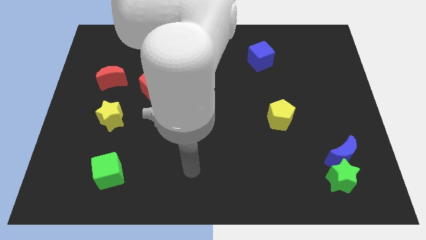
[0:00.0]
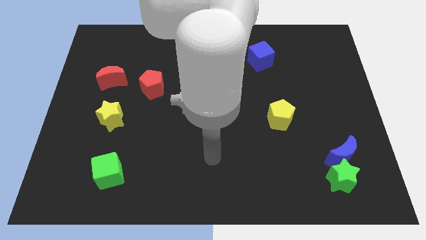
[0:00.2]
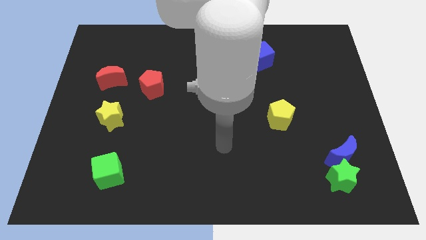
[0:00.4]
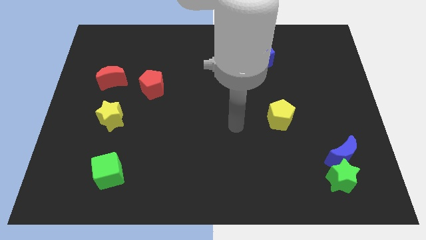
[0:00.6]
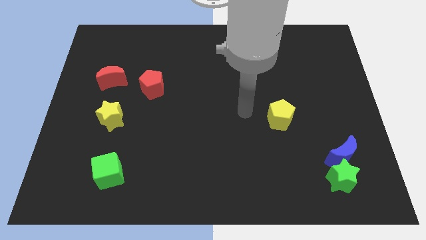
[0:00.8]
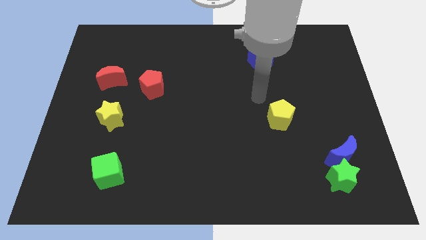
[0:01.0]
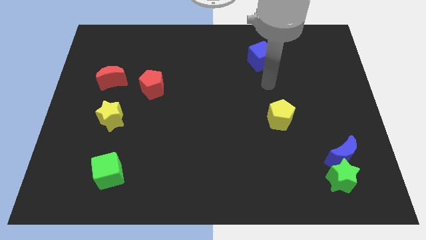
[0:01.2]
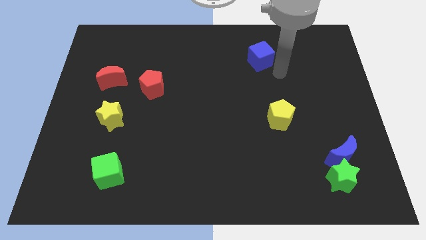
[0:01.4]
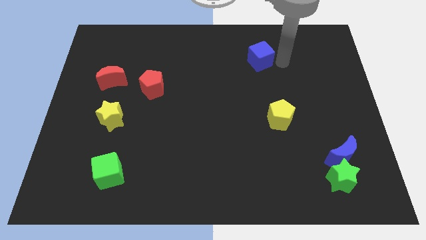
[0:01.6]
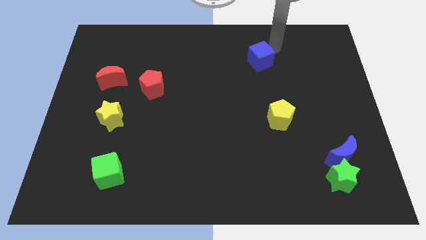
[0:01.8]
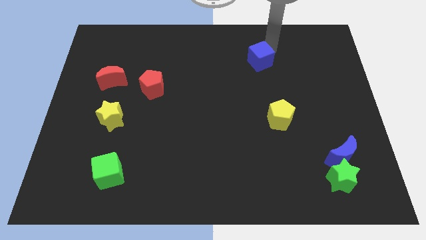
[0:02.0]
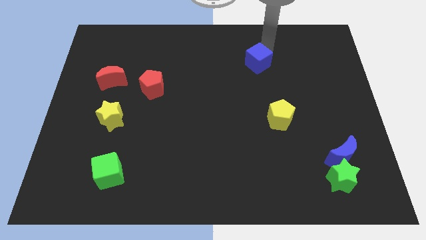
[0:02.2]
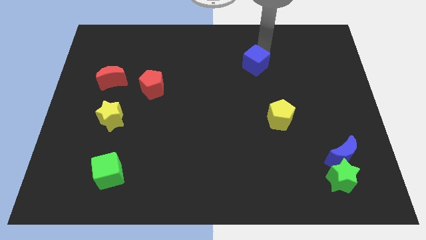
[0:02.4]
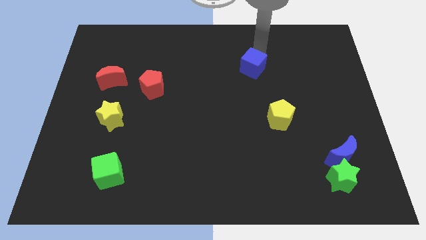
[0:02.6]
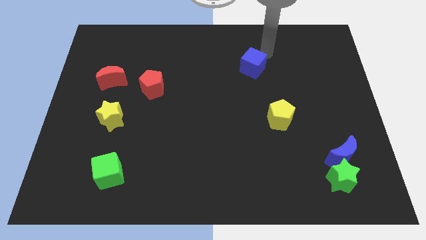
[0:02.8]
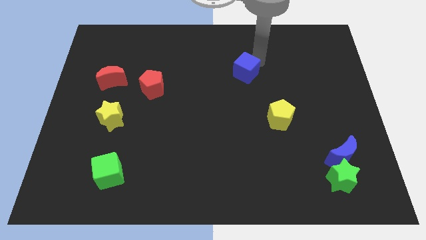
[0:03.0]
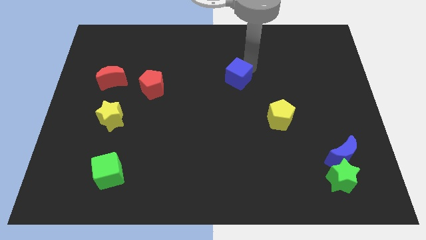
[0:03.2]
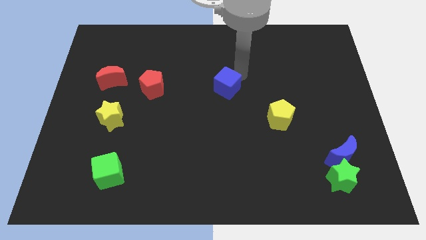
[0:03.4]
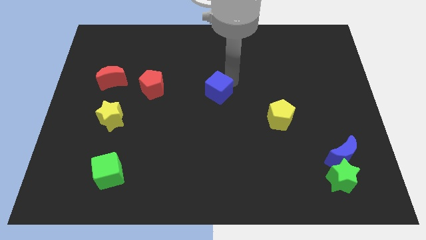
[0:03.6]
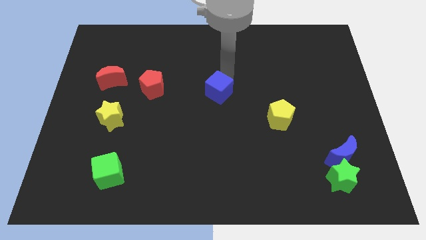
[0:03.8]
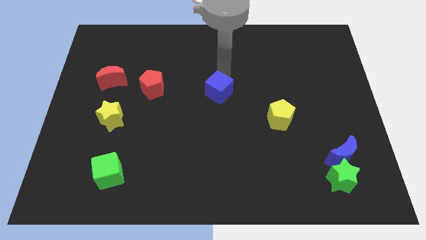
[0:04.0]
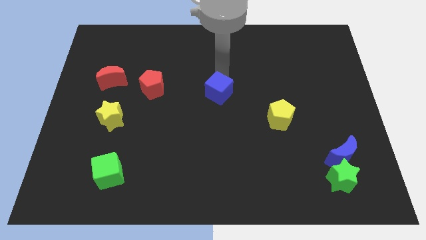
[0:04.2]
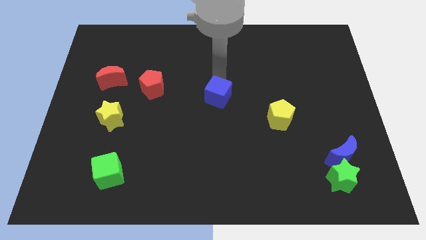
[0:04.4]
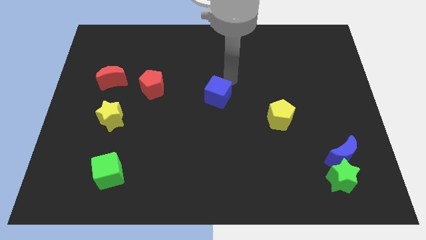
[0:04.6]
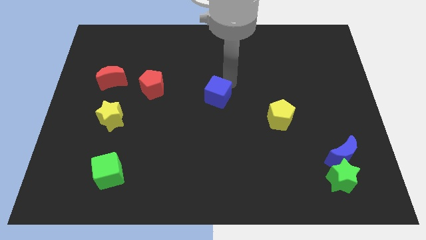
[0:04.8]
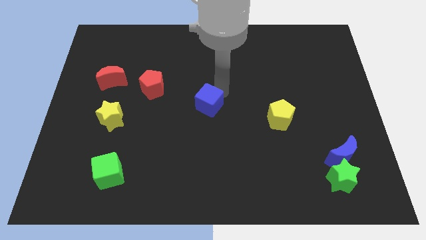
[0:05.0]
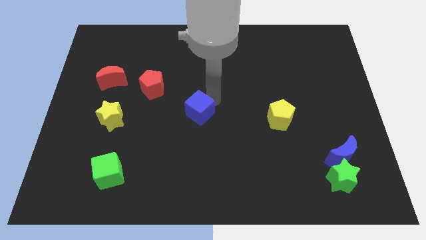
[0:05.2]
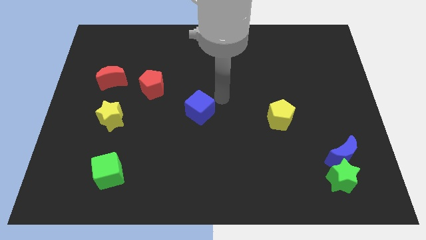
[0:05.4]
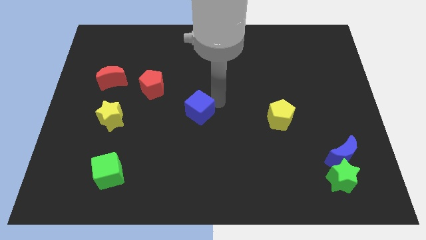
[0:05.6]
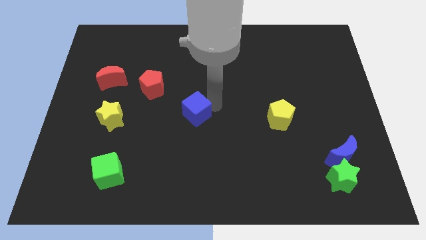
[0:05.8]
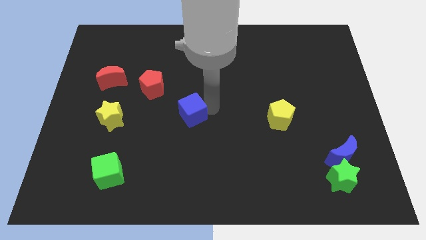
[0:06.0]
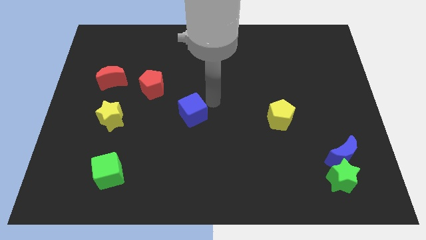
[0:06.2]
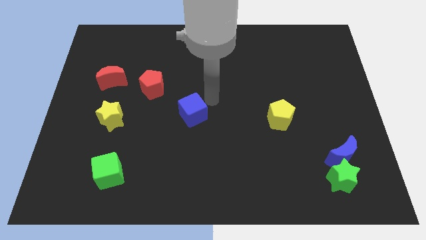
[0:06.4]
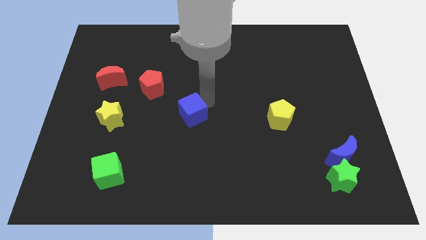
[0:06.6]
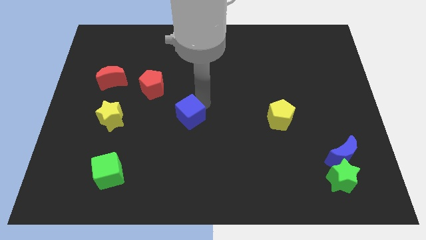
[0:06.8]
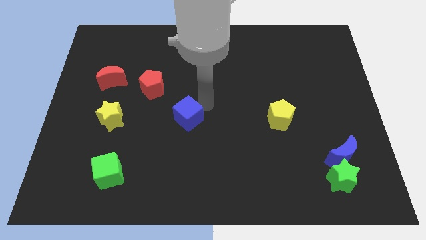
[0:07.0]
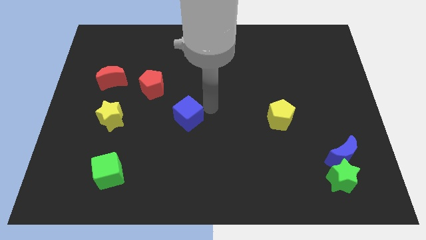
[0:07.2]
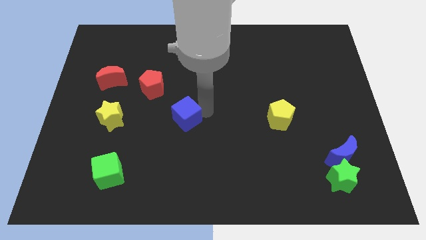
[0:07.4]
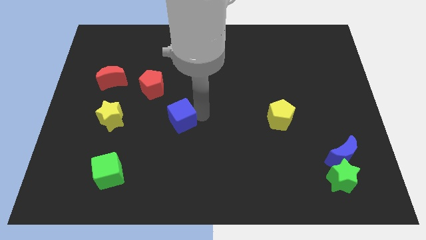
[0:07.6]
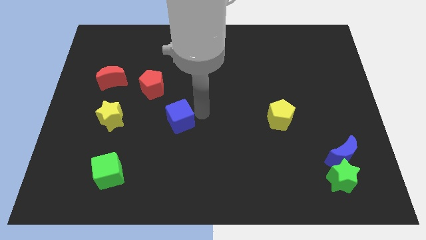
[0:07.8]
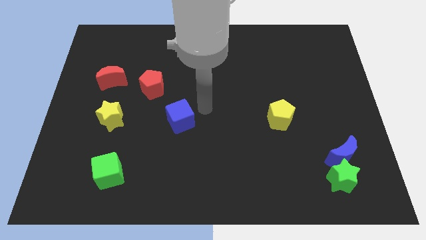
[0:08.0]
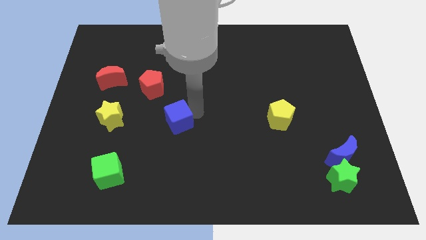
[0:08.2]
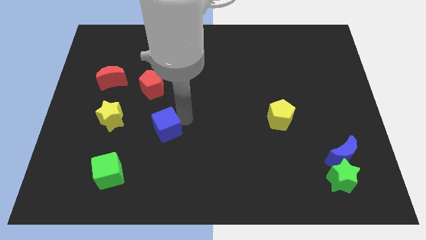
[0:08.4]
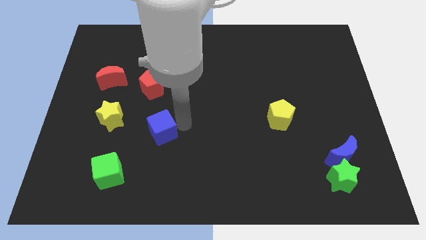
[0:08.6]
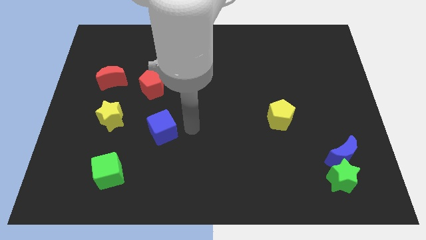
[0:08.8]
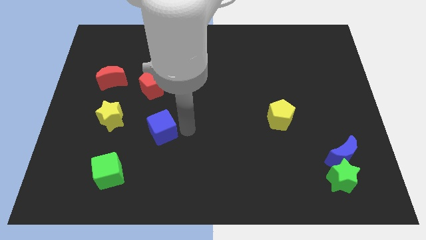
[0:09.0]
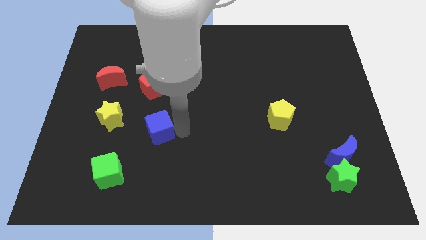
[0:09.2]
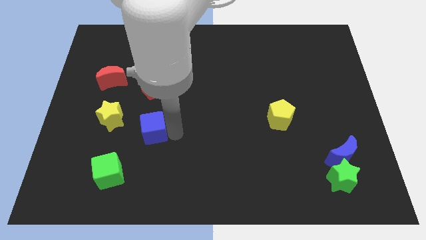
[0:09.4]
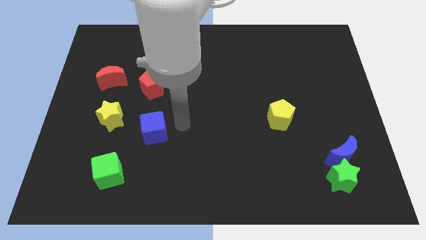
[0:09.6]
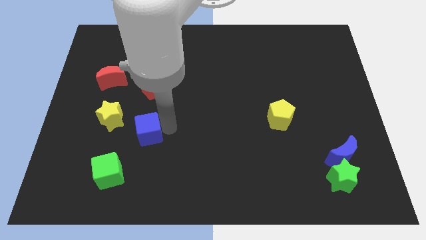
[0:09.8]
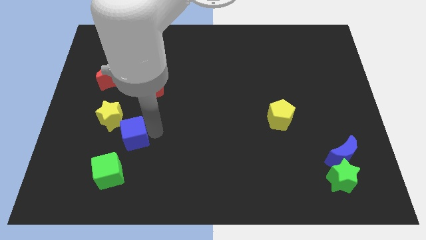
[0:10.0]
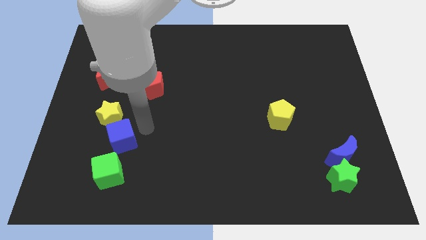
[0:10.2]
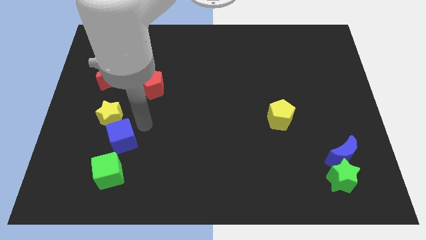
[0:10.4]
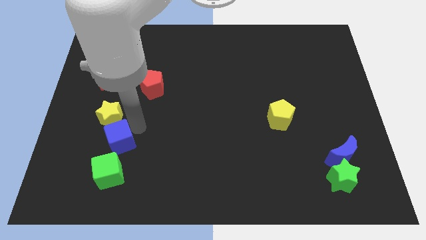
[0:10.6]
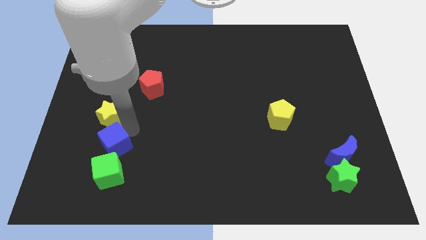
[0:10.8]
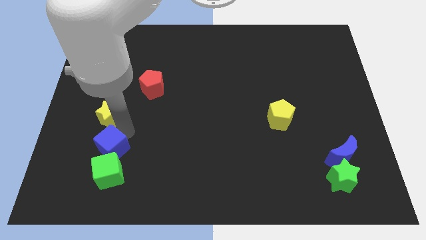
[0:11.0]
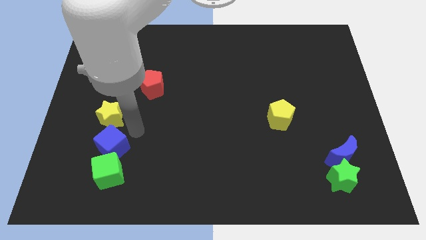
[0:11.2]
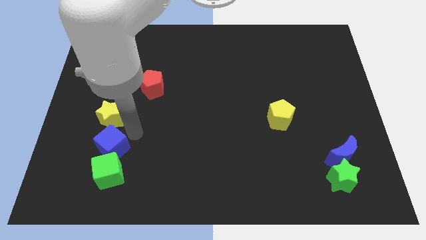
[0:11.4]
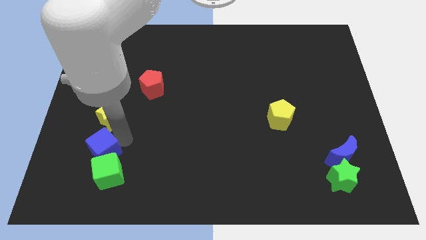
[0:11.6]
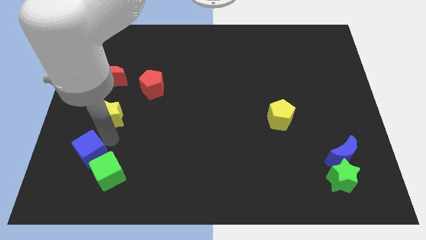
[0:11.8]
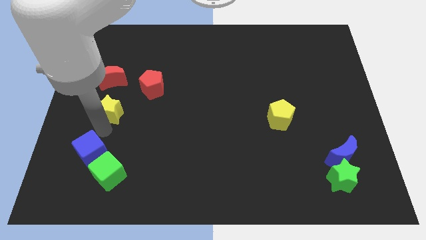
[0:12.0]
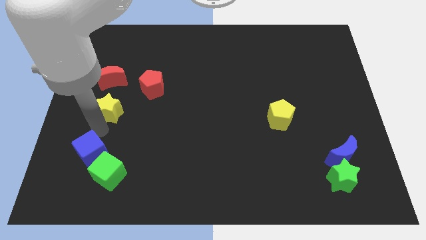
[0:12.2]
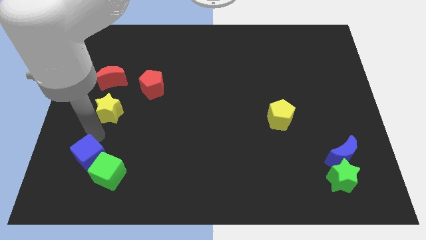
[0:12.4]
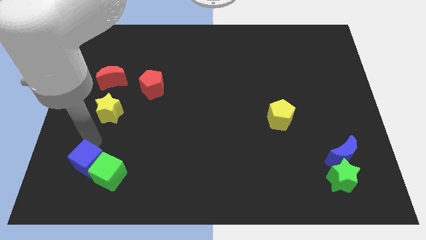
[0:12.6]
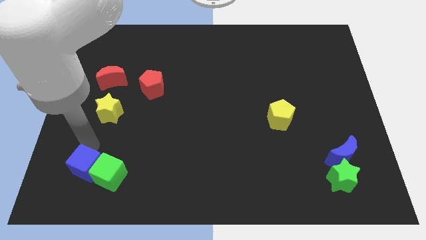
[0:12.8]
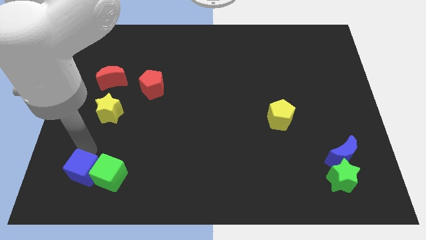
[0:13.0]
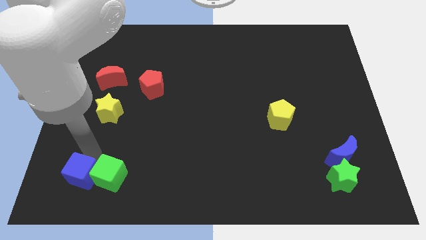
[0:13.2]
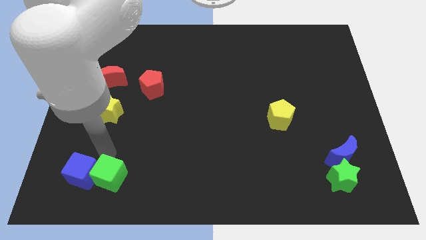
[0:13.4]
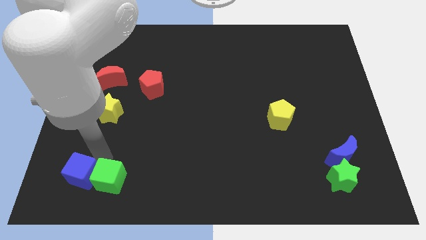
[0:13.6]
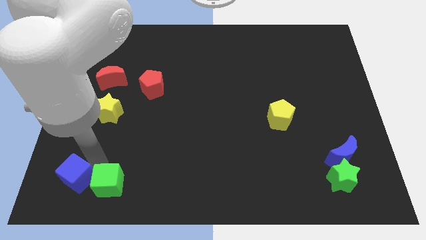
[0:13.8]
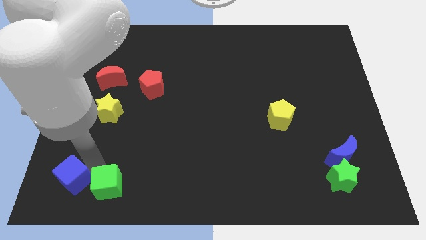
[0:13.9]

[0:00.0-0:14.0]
move the blue cube to the bottom left
